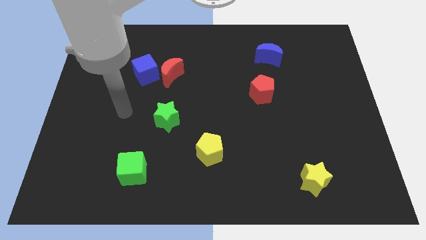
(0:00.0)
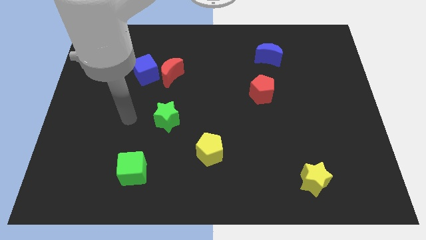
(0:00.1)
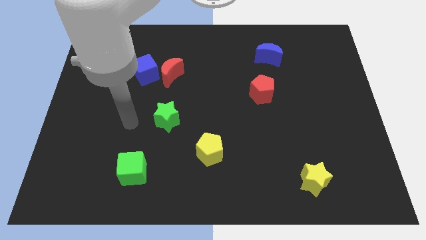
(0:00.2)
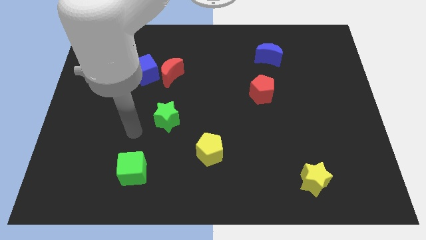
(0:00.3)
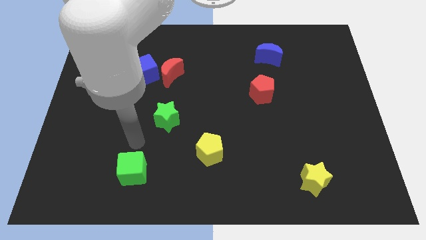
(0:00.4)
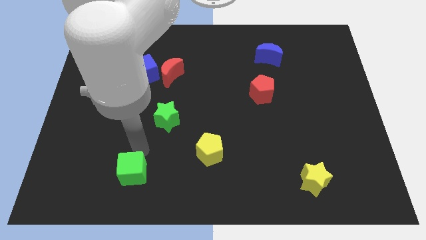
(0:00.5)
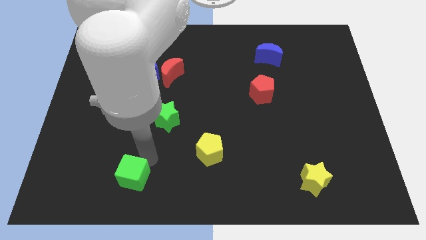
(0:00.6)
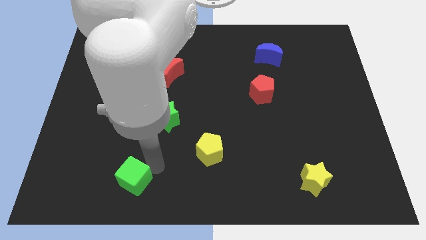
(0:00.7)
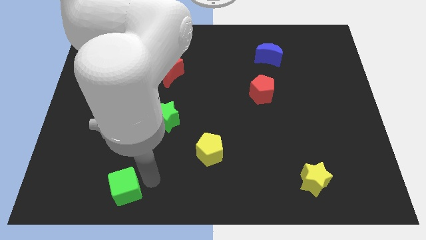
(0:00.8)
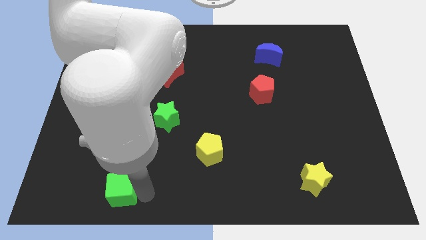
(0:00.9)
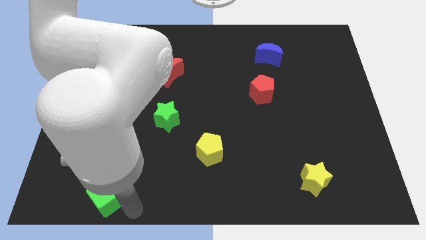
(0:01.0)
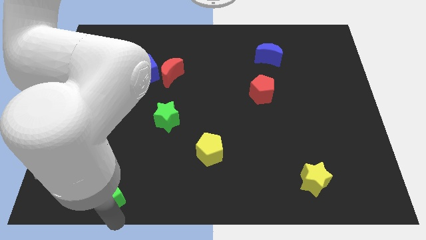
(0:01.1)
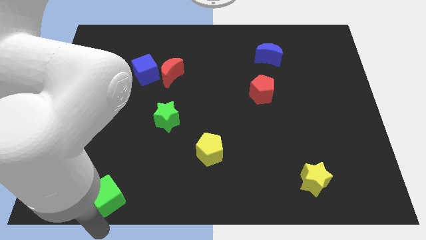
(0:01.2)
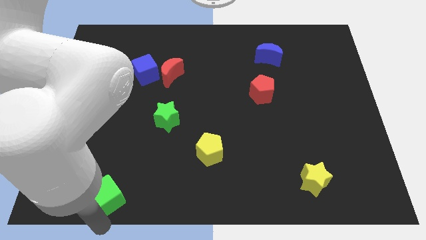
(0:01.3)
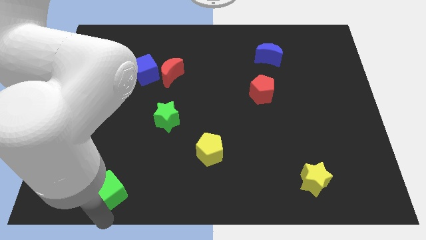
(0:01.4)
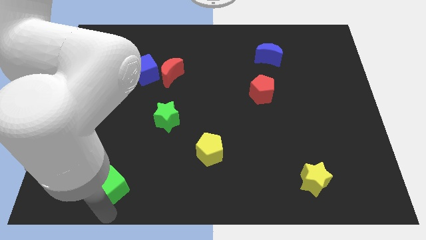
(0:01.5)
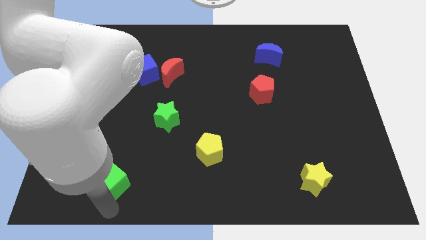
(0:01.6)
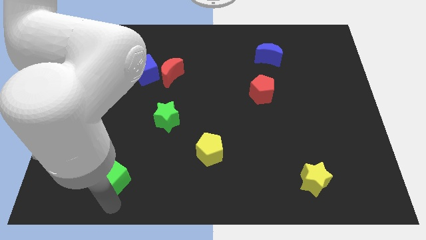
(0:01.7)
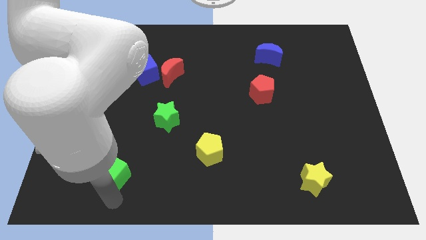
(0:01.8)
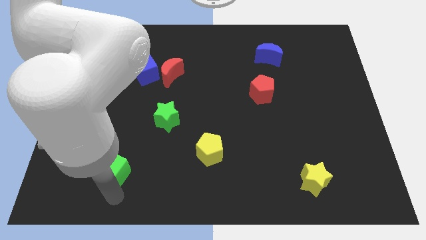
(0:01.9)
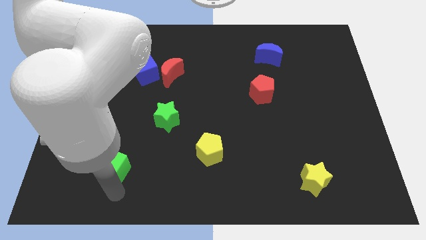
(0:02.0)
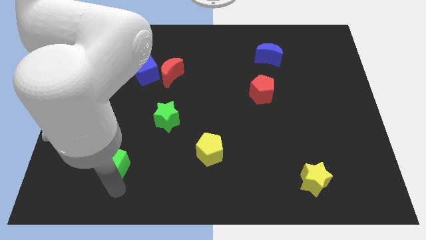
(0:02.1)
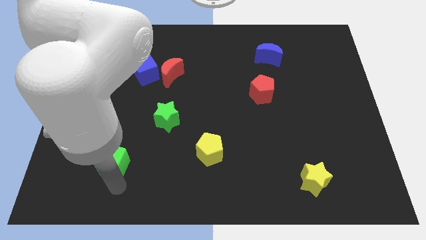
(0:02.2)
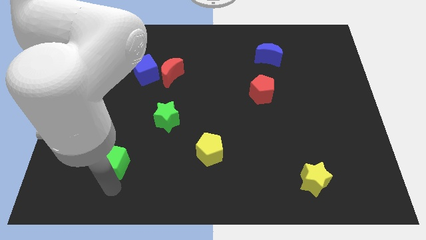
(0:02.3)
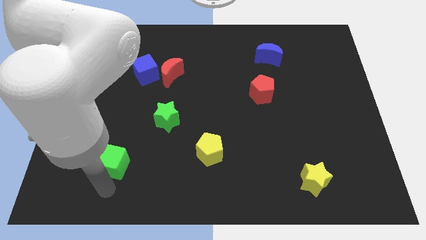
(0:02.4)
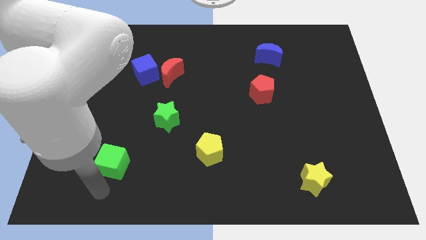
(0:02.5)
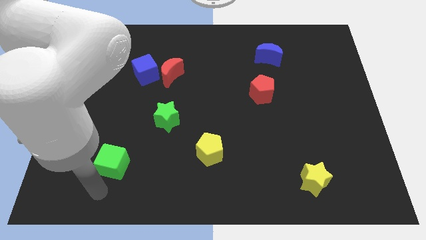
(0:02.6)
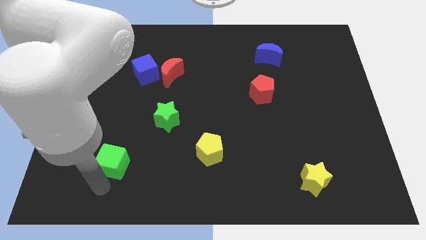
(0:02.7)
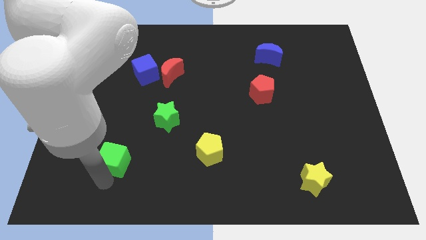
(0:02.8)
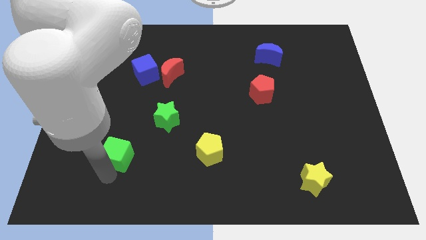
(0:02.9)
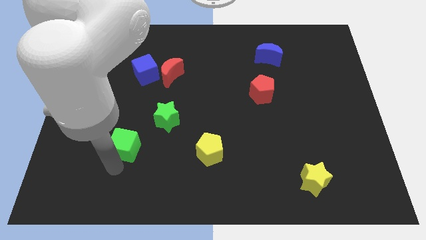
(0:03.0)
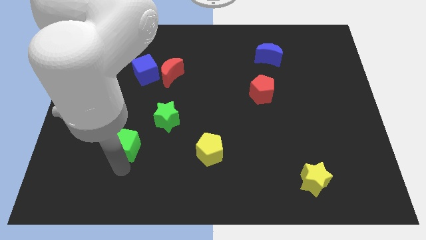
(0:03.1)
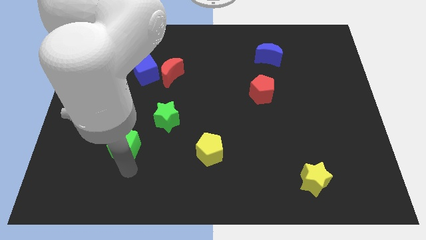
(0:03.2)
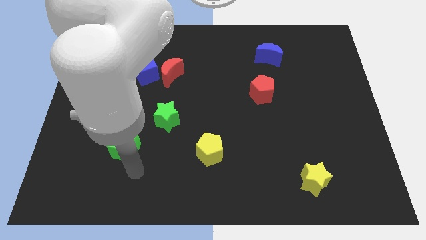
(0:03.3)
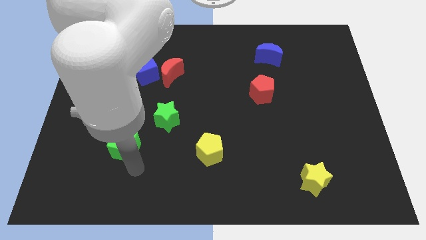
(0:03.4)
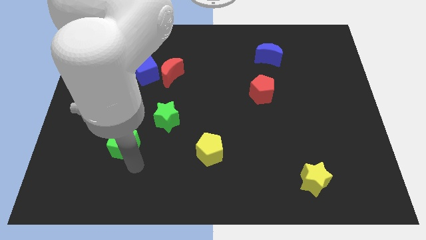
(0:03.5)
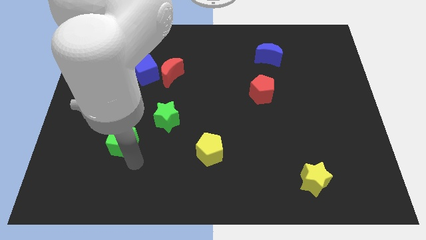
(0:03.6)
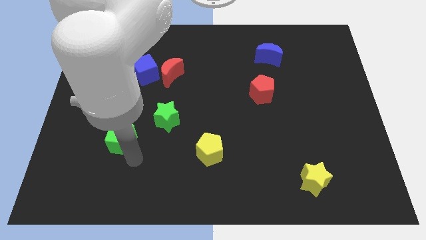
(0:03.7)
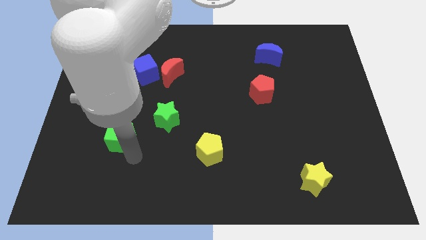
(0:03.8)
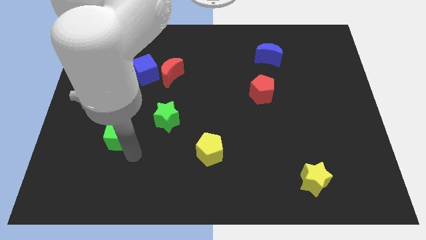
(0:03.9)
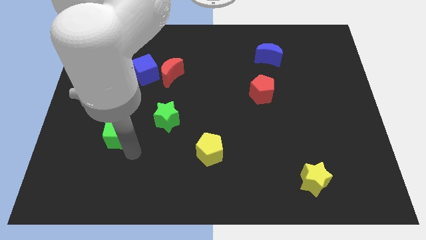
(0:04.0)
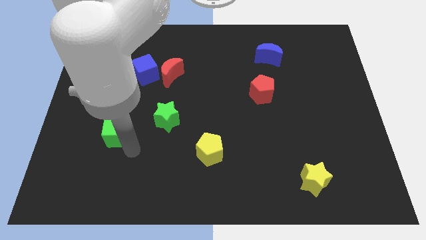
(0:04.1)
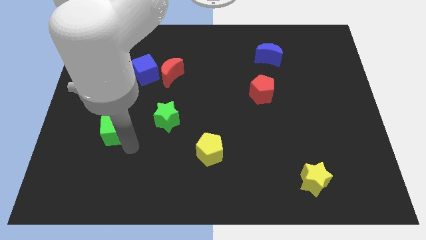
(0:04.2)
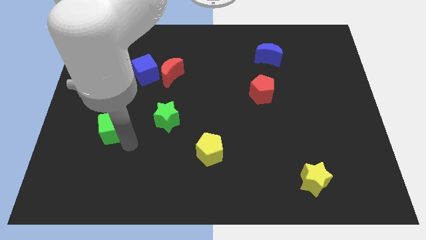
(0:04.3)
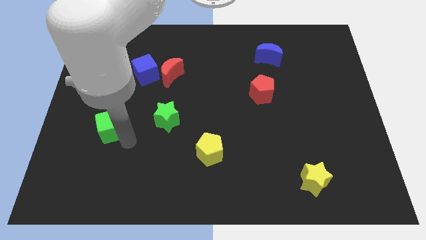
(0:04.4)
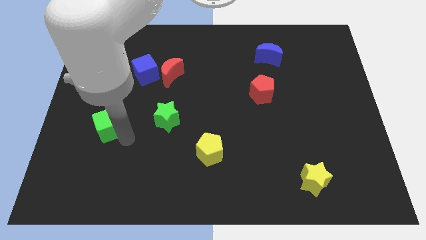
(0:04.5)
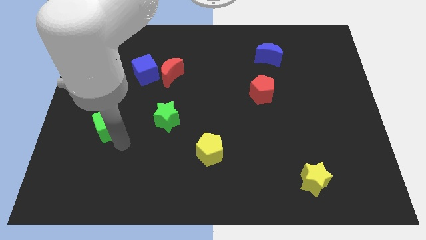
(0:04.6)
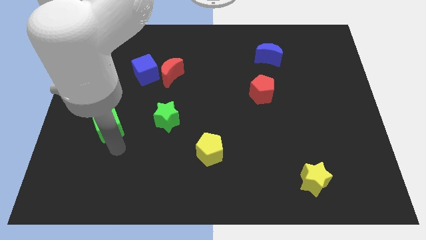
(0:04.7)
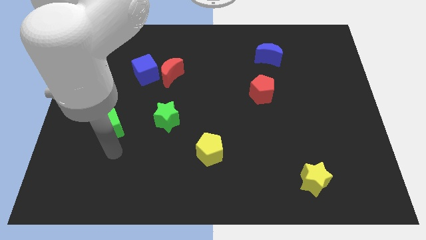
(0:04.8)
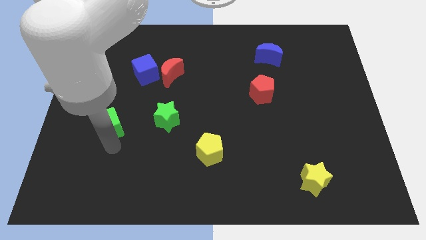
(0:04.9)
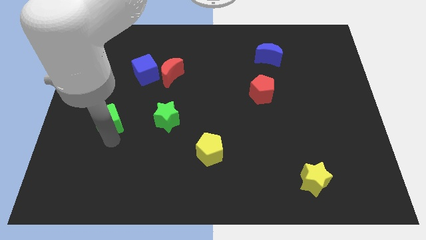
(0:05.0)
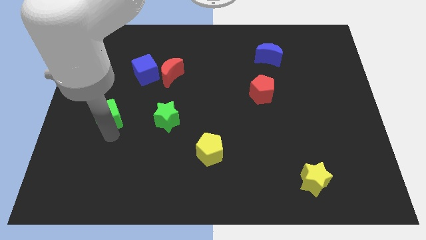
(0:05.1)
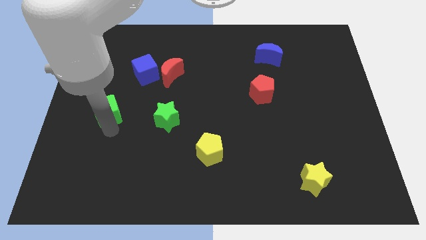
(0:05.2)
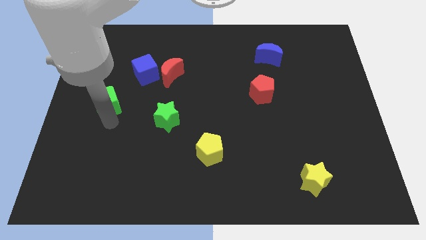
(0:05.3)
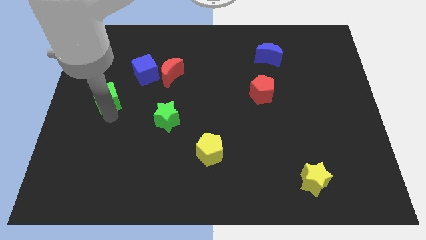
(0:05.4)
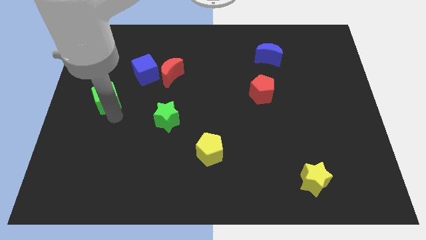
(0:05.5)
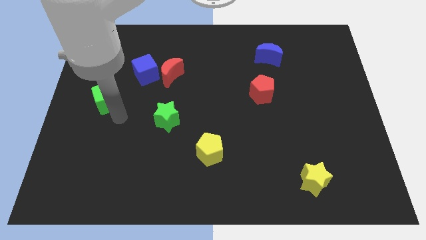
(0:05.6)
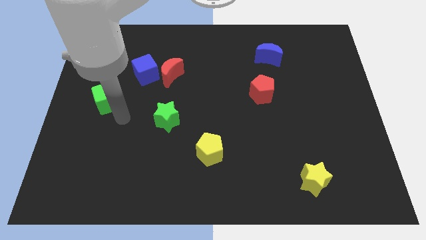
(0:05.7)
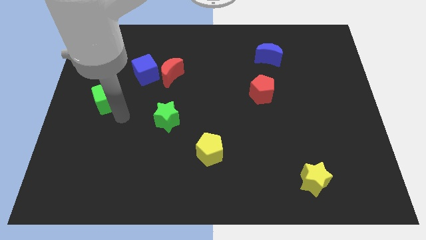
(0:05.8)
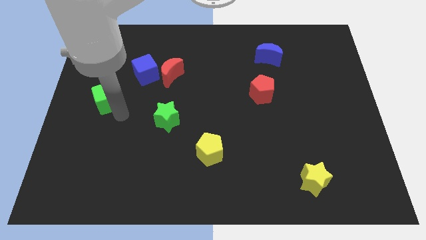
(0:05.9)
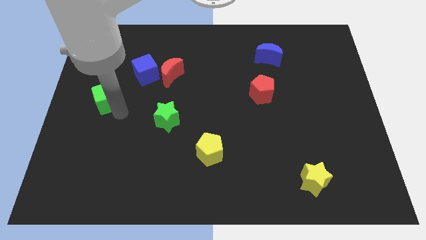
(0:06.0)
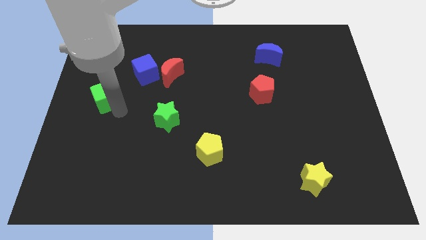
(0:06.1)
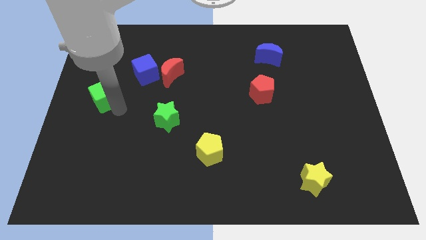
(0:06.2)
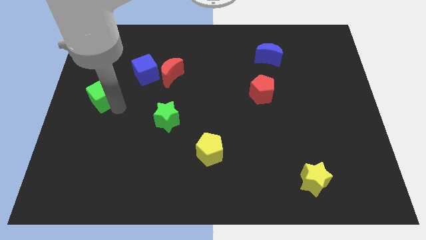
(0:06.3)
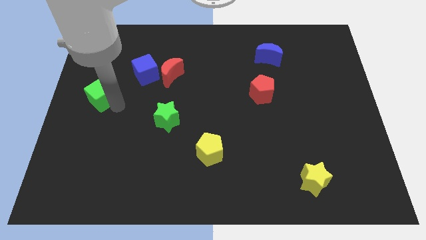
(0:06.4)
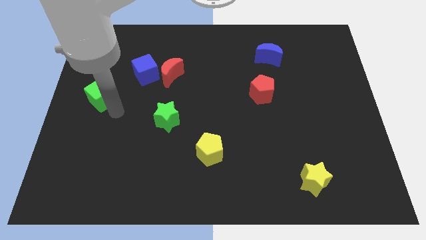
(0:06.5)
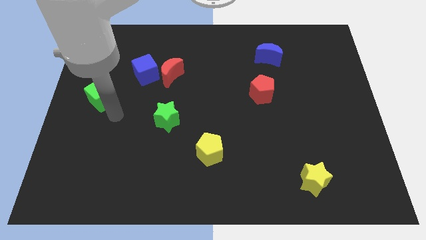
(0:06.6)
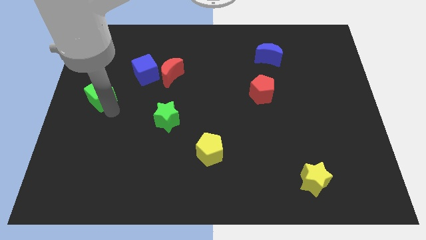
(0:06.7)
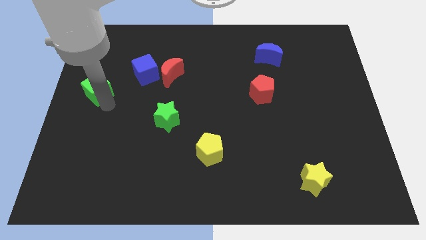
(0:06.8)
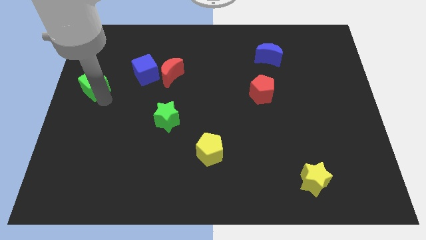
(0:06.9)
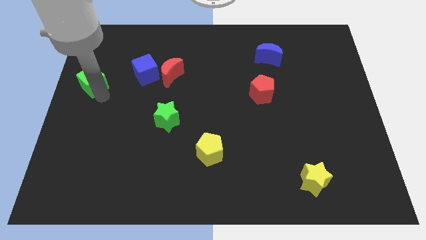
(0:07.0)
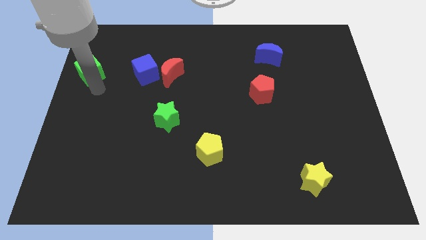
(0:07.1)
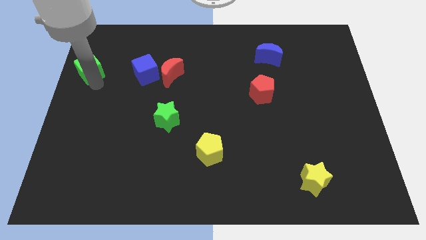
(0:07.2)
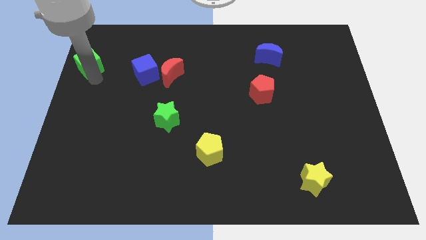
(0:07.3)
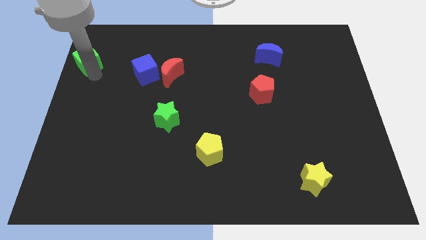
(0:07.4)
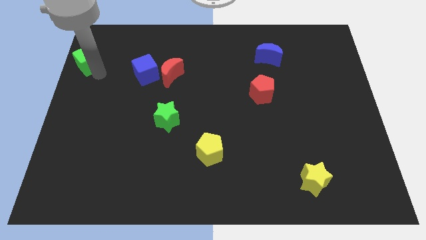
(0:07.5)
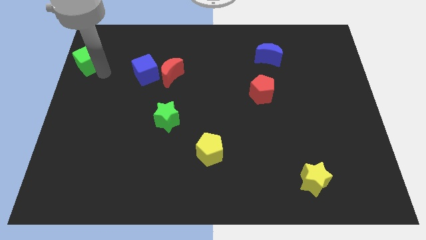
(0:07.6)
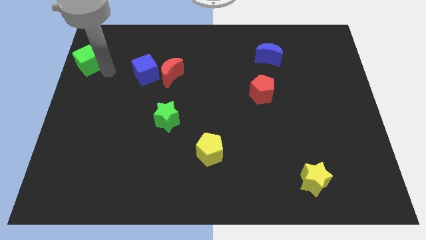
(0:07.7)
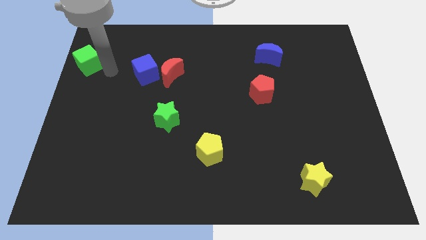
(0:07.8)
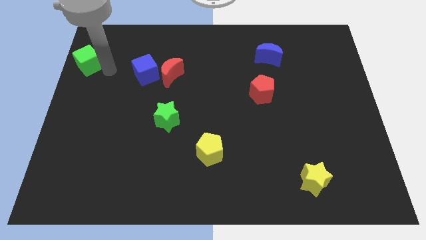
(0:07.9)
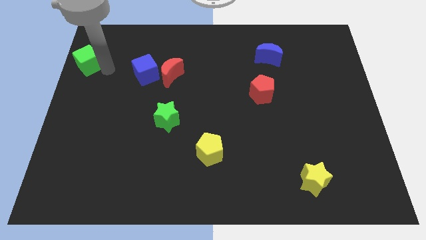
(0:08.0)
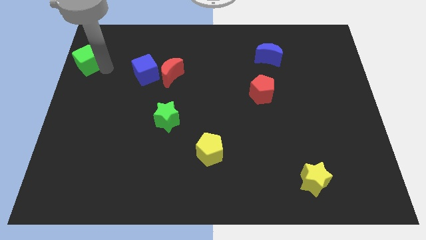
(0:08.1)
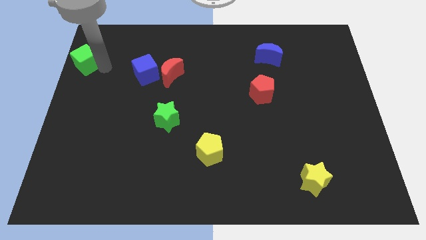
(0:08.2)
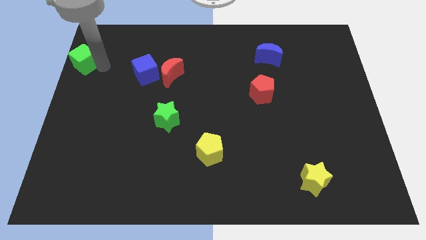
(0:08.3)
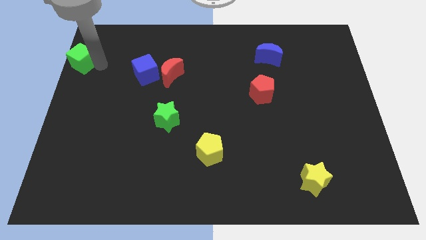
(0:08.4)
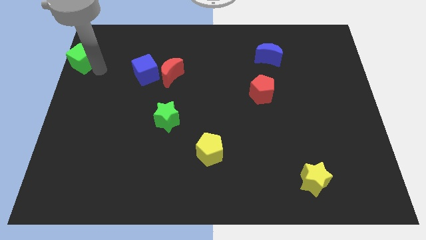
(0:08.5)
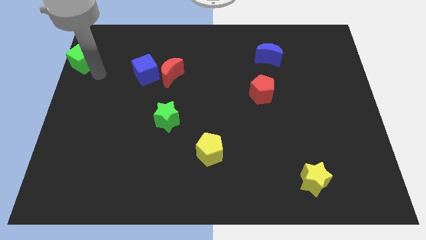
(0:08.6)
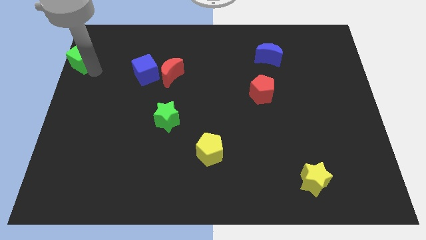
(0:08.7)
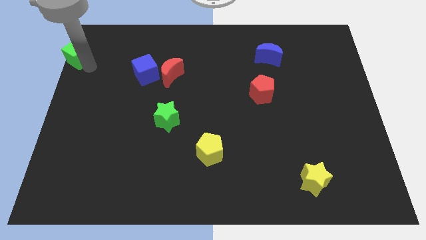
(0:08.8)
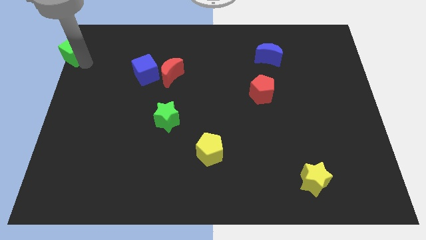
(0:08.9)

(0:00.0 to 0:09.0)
push the green cube to the top left corner
